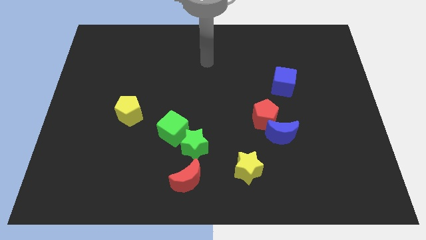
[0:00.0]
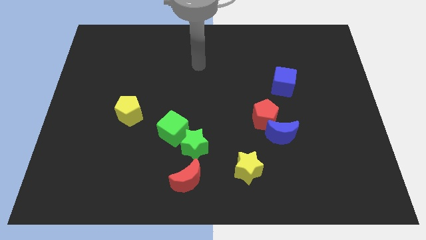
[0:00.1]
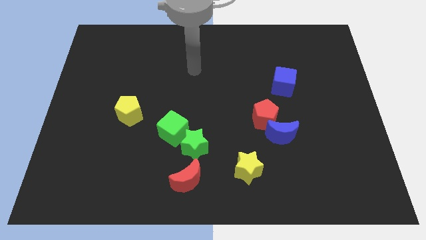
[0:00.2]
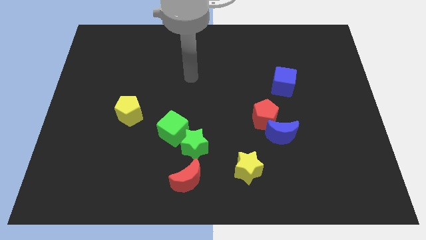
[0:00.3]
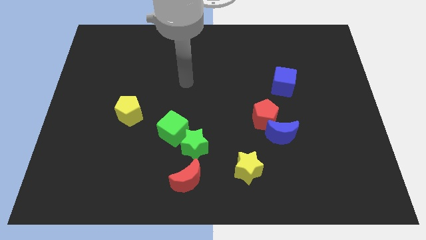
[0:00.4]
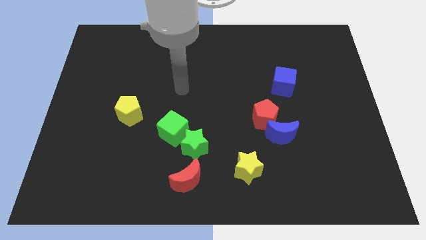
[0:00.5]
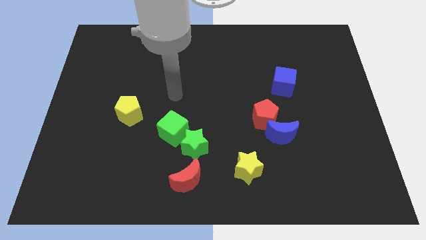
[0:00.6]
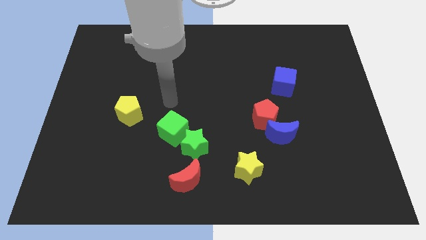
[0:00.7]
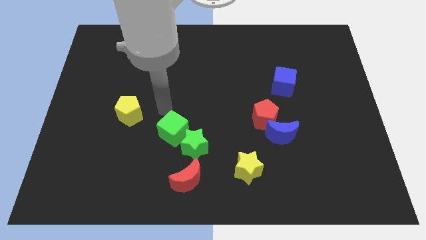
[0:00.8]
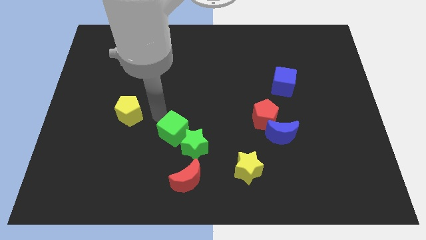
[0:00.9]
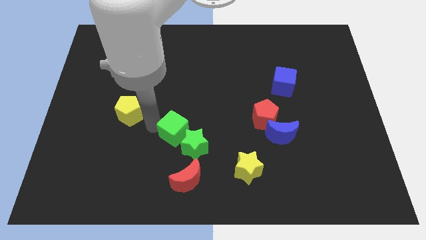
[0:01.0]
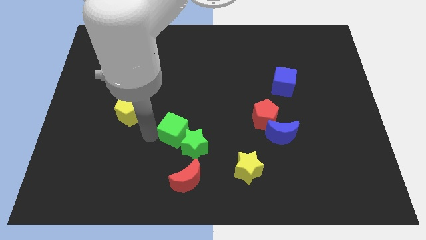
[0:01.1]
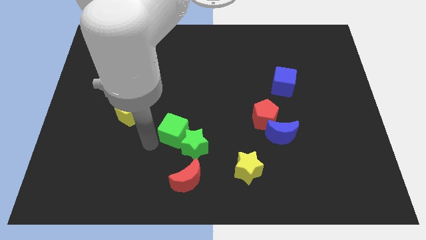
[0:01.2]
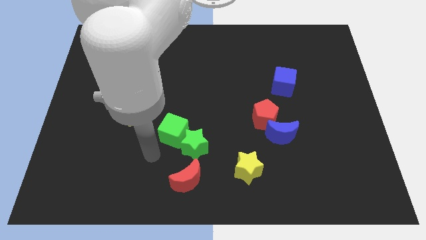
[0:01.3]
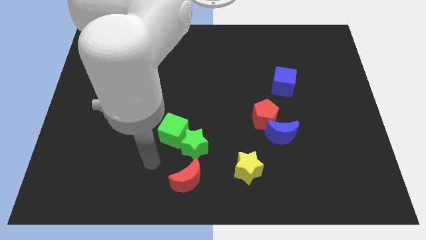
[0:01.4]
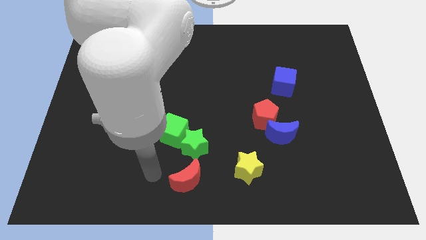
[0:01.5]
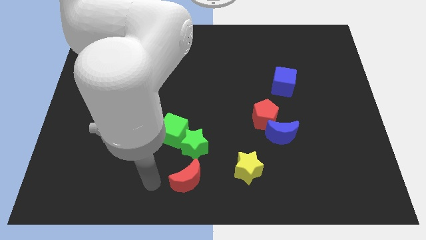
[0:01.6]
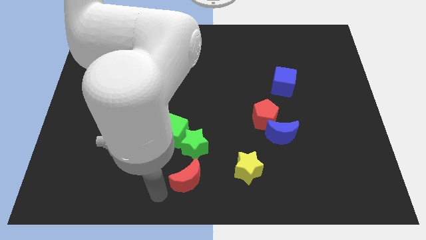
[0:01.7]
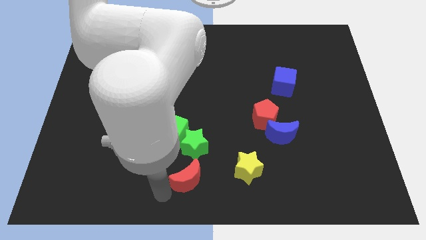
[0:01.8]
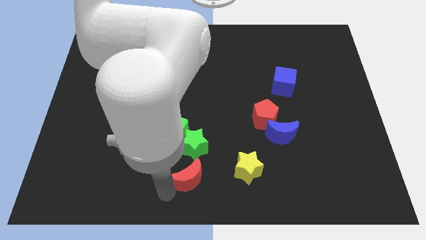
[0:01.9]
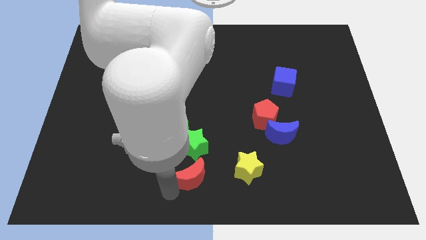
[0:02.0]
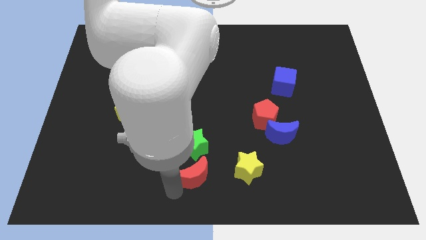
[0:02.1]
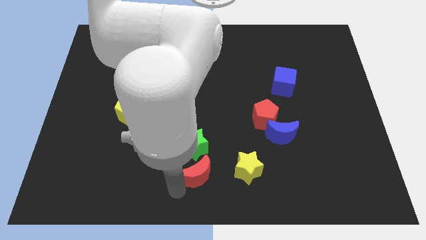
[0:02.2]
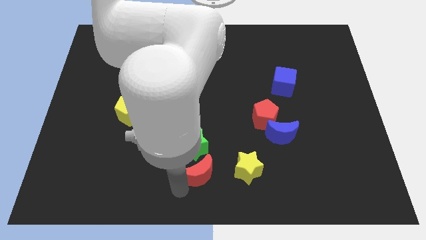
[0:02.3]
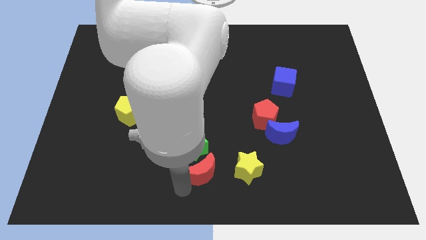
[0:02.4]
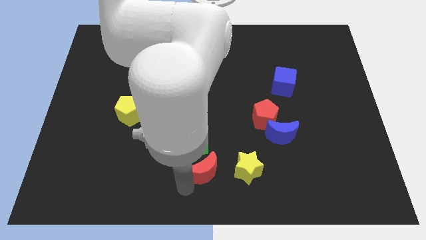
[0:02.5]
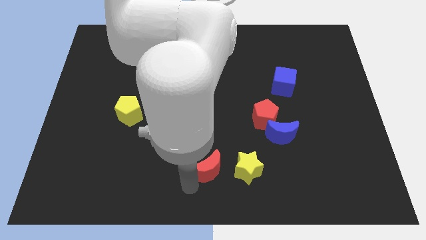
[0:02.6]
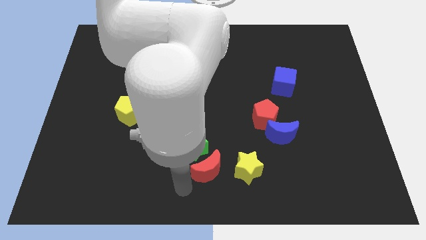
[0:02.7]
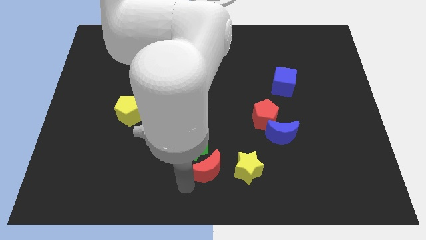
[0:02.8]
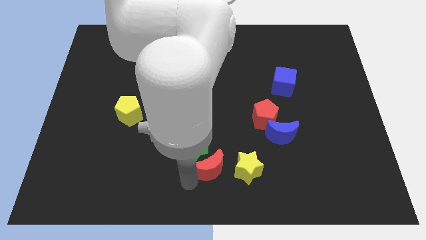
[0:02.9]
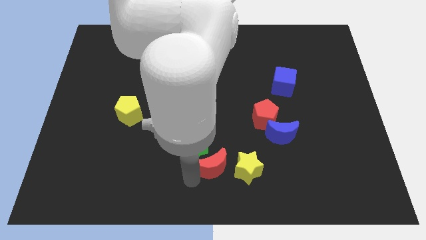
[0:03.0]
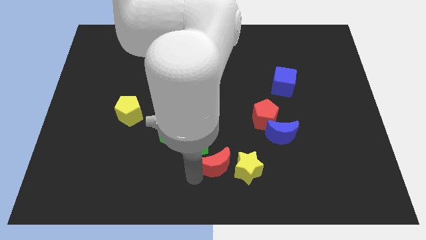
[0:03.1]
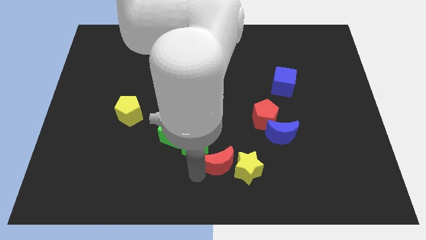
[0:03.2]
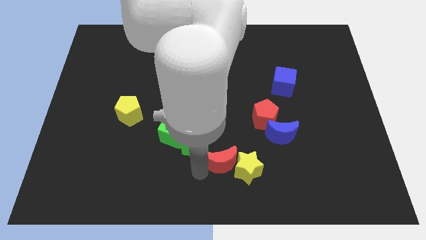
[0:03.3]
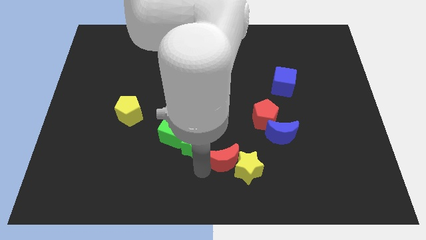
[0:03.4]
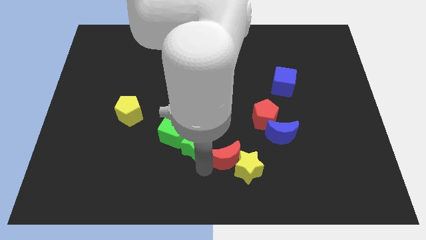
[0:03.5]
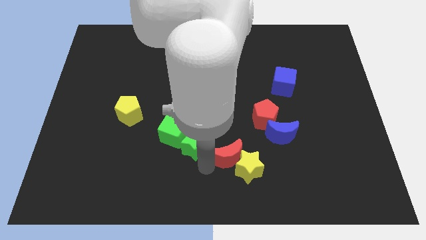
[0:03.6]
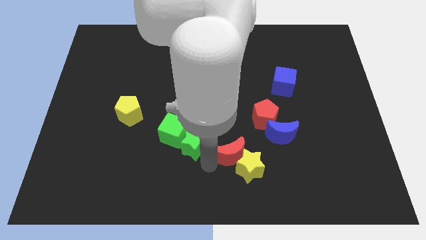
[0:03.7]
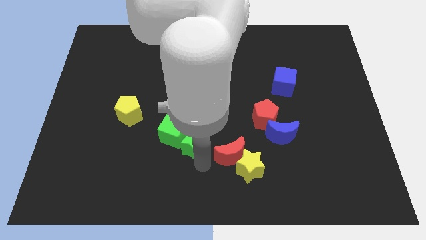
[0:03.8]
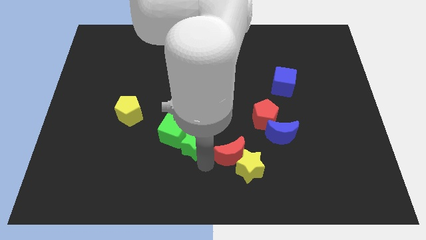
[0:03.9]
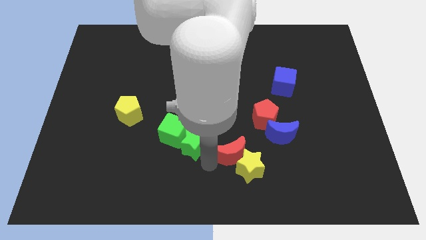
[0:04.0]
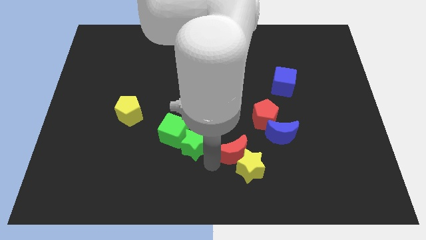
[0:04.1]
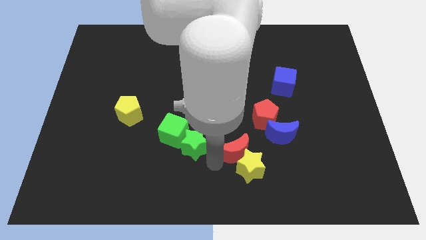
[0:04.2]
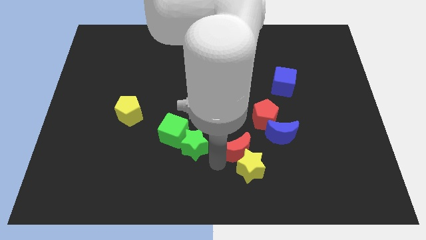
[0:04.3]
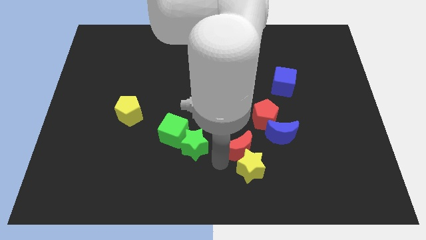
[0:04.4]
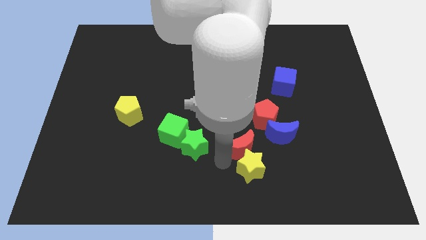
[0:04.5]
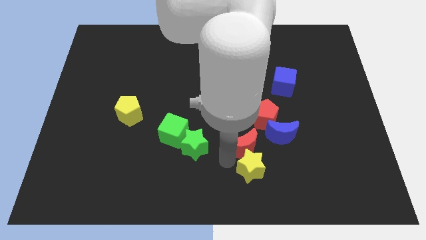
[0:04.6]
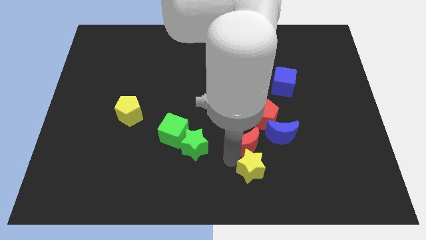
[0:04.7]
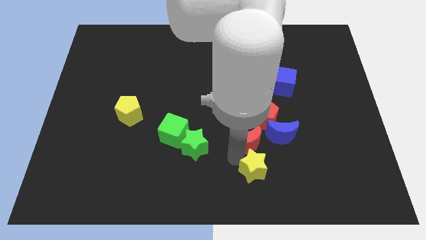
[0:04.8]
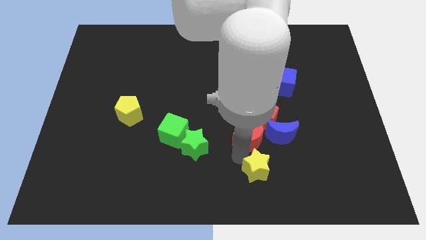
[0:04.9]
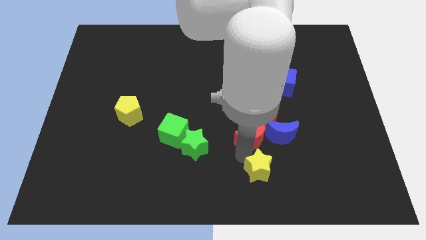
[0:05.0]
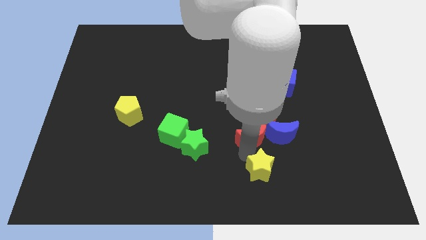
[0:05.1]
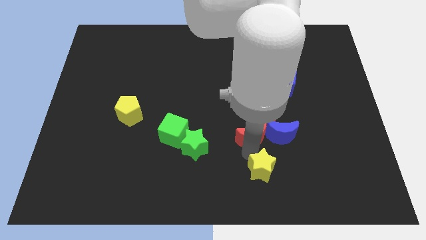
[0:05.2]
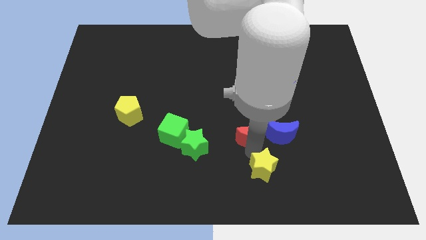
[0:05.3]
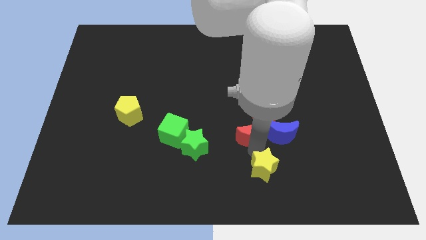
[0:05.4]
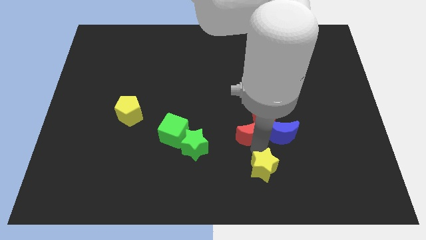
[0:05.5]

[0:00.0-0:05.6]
move the red moon towards the blue moon

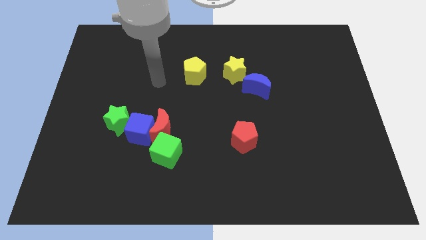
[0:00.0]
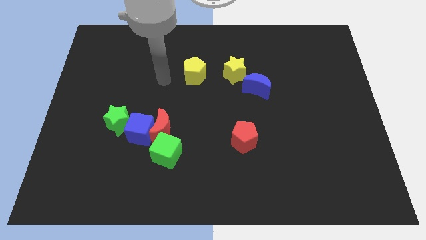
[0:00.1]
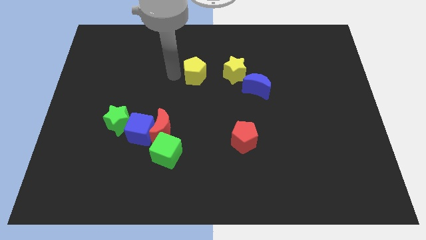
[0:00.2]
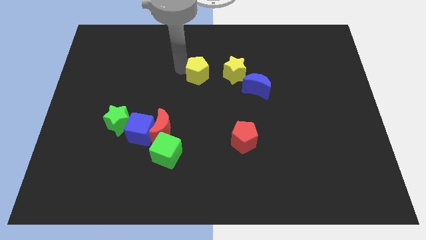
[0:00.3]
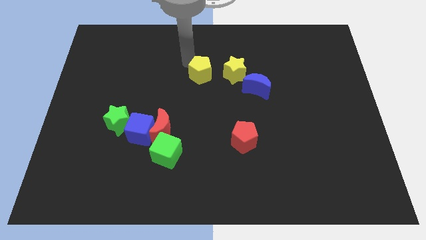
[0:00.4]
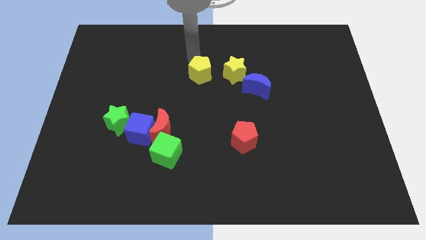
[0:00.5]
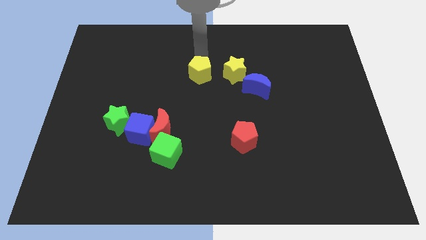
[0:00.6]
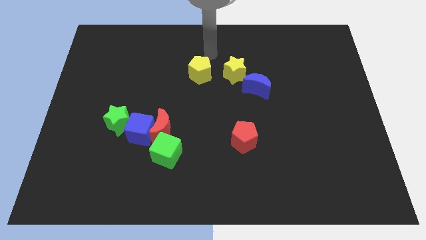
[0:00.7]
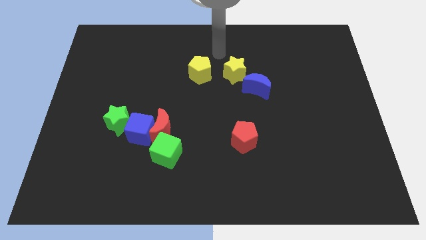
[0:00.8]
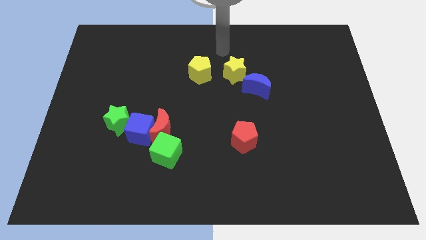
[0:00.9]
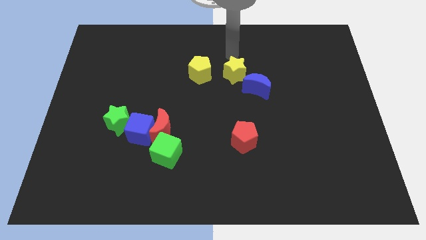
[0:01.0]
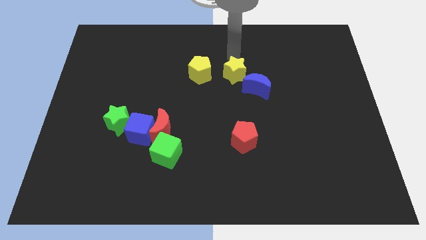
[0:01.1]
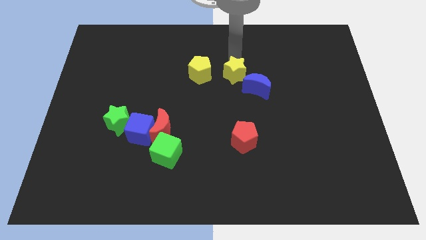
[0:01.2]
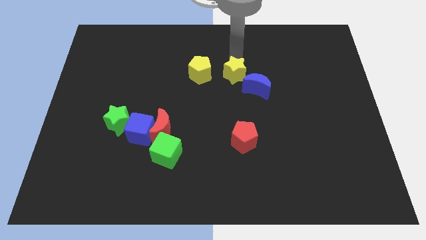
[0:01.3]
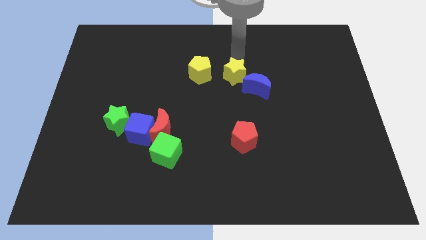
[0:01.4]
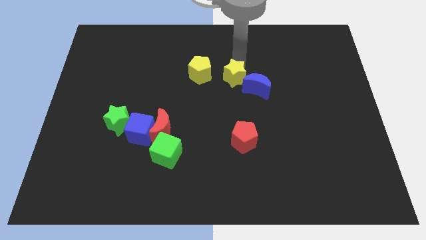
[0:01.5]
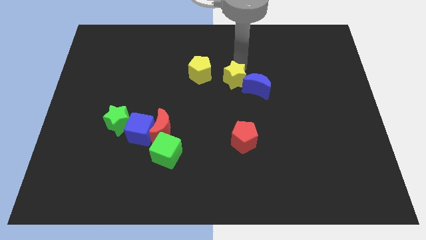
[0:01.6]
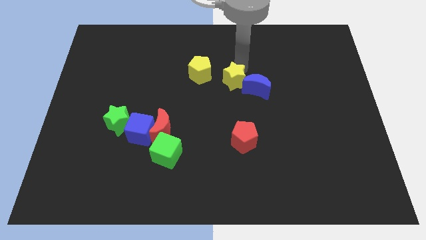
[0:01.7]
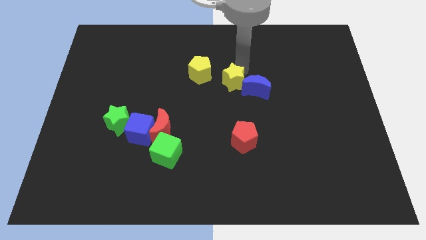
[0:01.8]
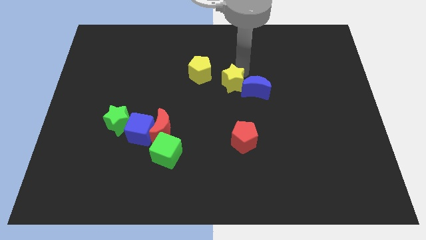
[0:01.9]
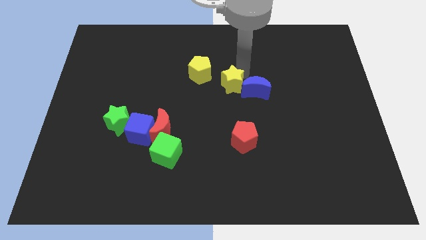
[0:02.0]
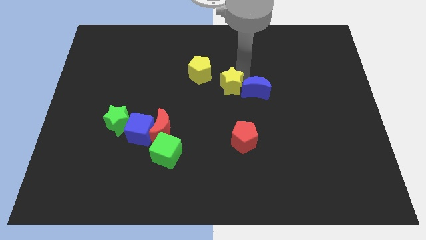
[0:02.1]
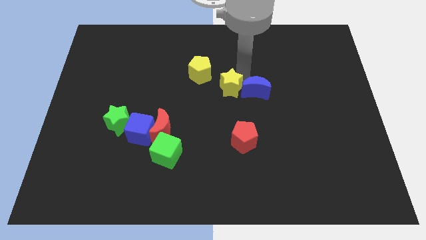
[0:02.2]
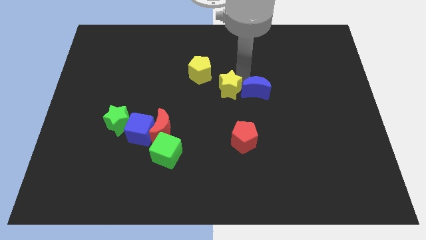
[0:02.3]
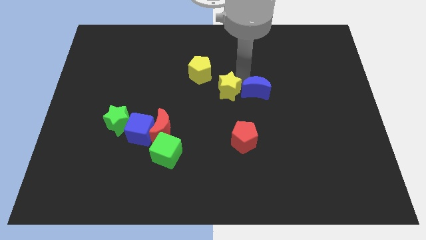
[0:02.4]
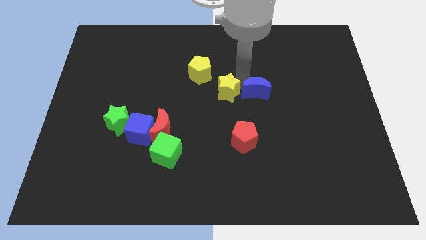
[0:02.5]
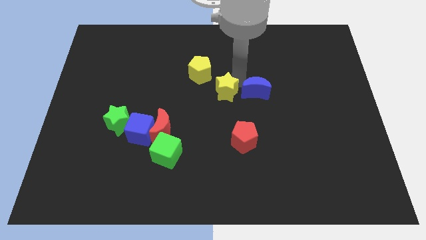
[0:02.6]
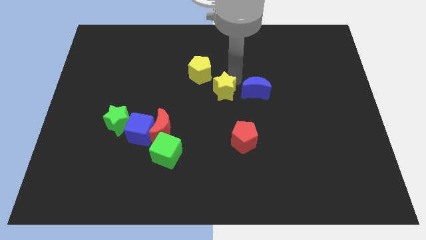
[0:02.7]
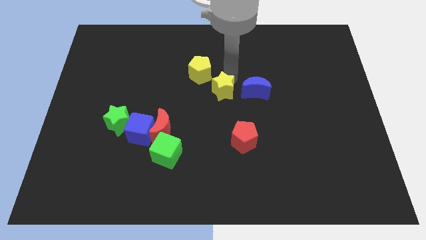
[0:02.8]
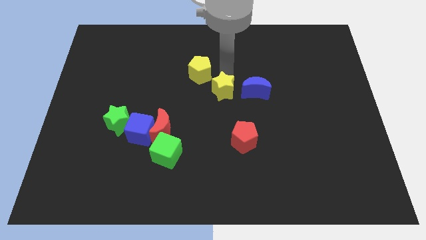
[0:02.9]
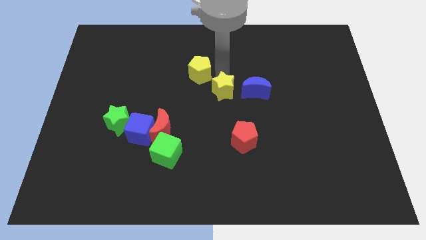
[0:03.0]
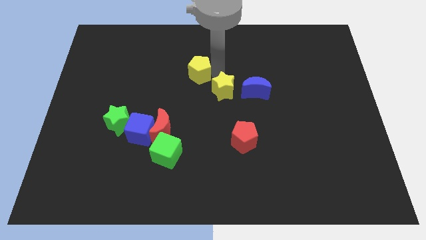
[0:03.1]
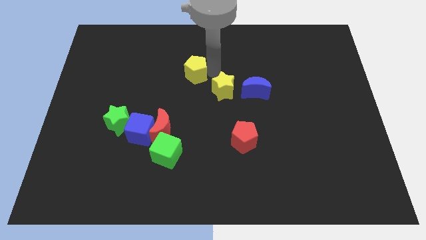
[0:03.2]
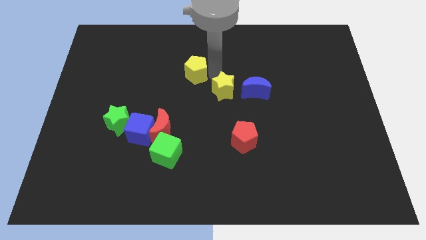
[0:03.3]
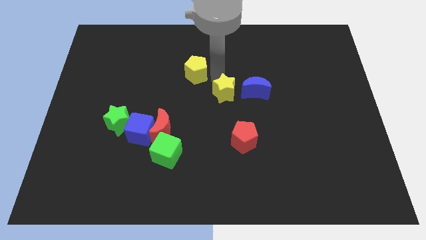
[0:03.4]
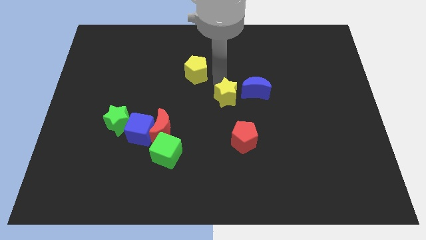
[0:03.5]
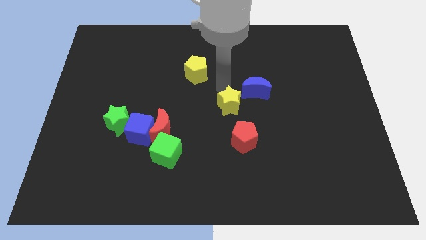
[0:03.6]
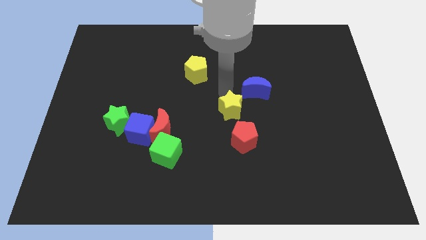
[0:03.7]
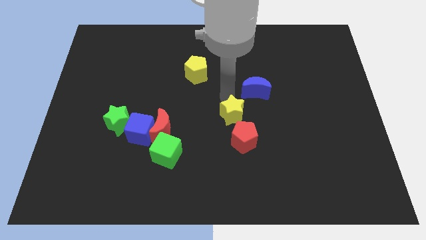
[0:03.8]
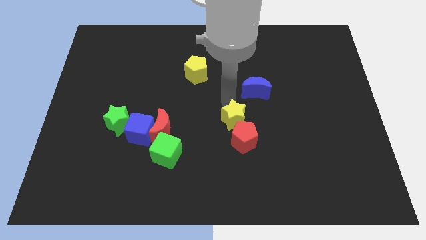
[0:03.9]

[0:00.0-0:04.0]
push the yellow star next to the red pentagon
